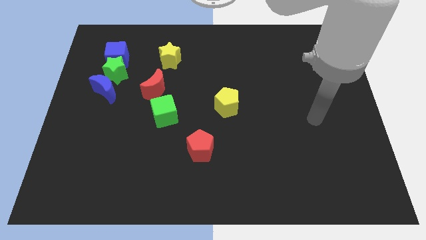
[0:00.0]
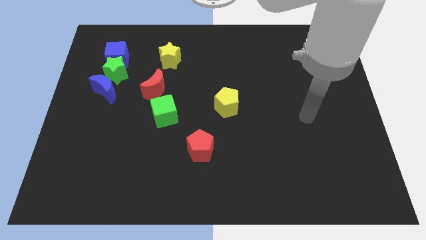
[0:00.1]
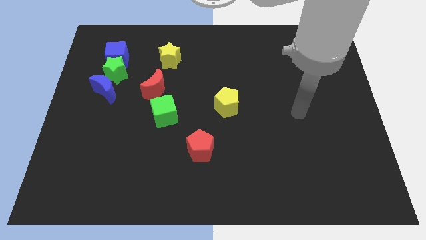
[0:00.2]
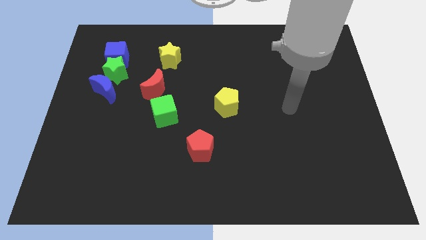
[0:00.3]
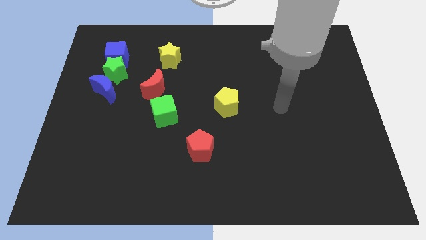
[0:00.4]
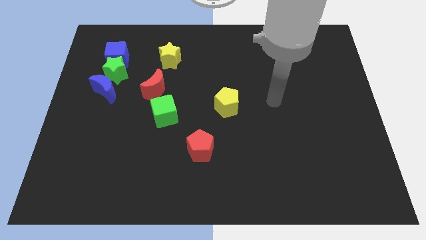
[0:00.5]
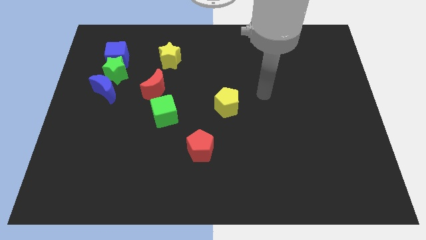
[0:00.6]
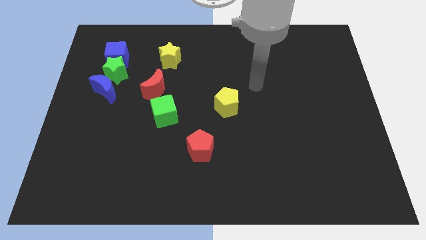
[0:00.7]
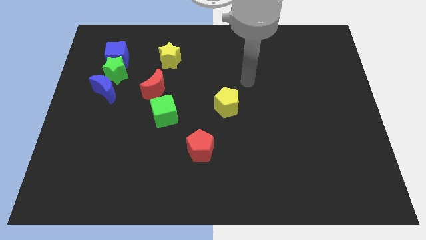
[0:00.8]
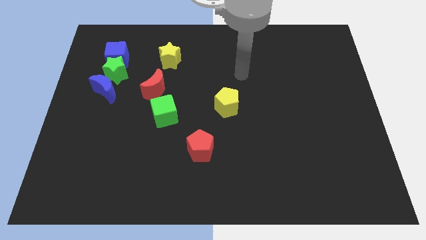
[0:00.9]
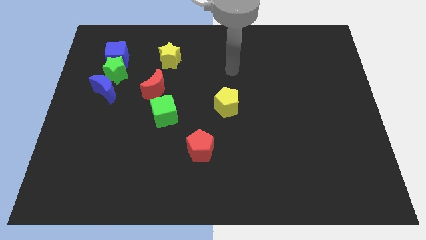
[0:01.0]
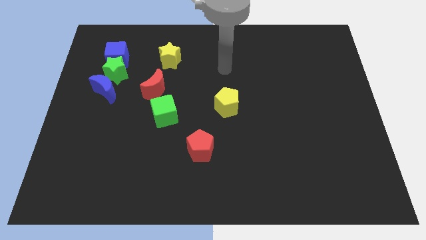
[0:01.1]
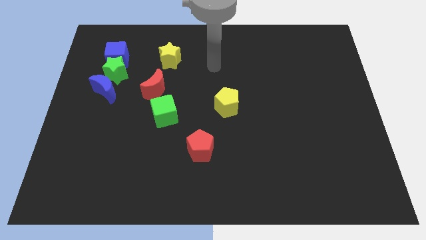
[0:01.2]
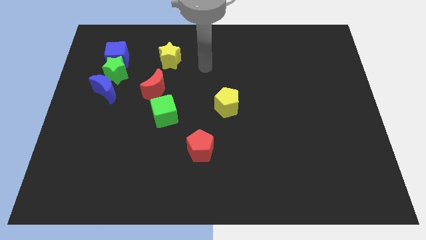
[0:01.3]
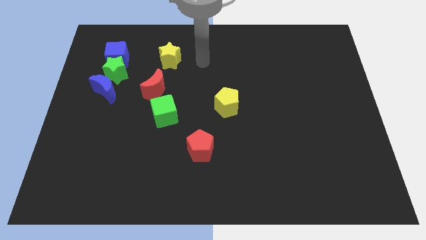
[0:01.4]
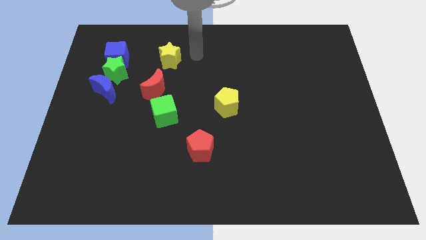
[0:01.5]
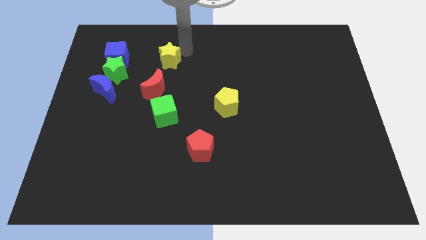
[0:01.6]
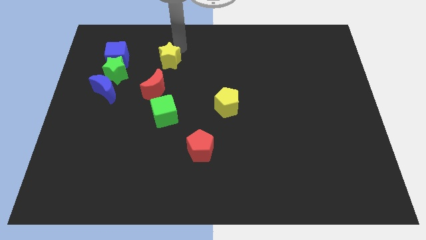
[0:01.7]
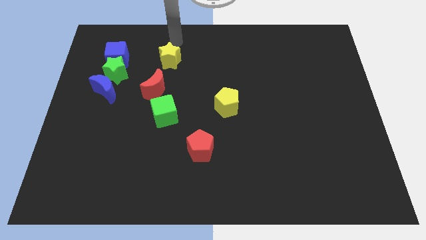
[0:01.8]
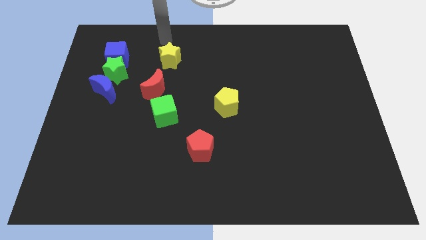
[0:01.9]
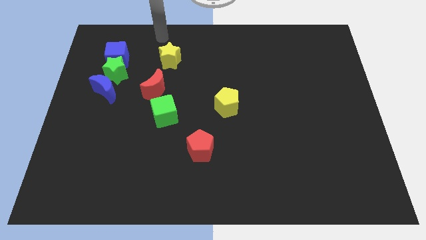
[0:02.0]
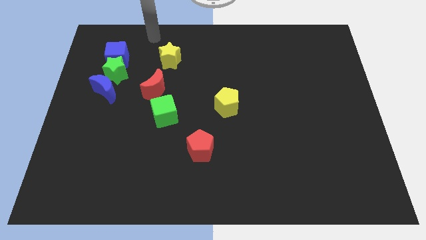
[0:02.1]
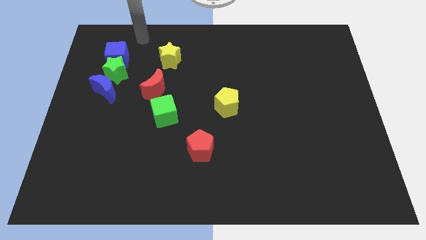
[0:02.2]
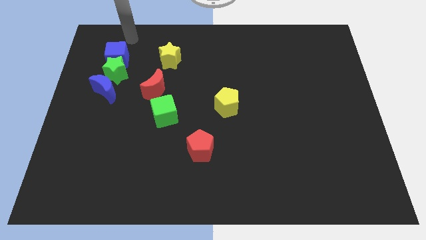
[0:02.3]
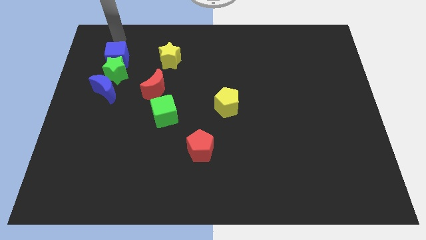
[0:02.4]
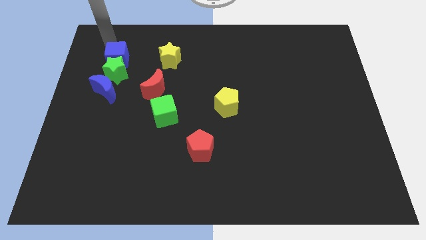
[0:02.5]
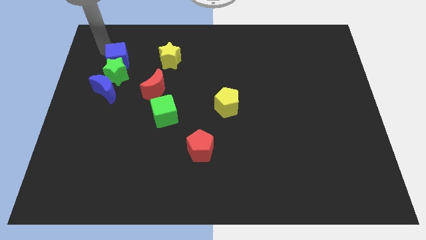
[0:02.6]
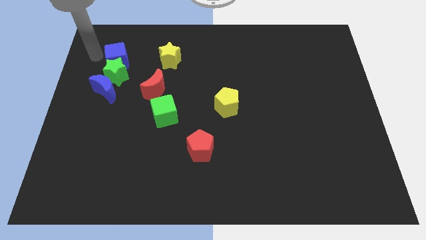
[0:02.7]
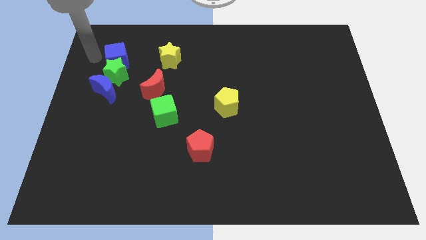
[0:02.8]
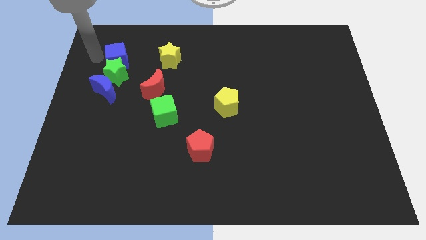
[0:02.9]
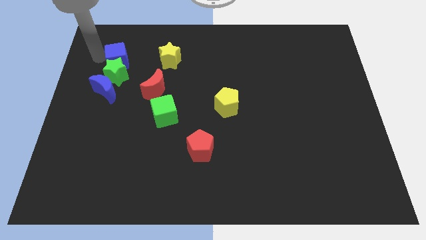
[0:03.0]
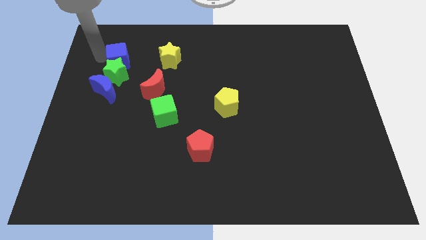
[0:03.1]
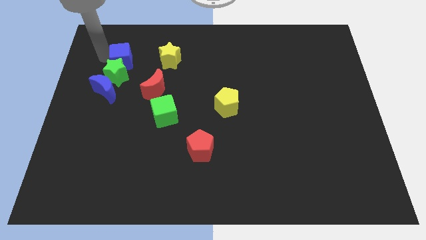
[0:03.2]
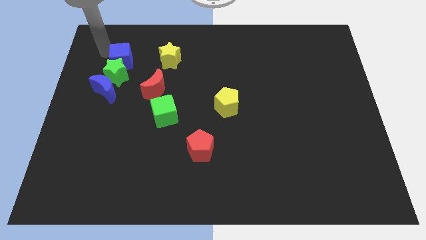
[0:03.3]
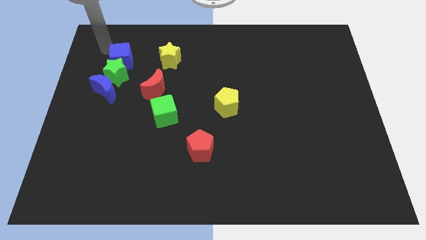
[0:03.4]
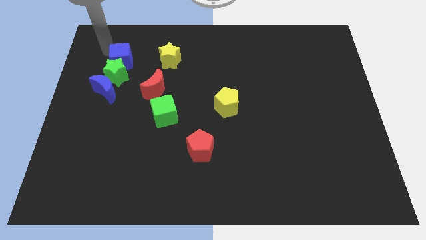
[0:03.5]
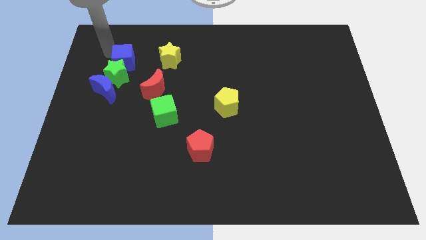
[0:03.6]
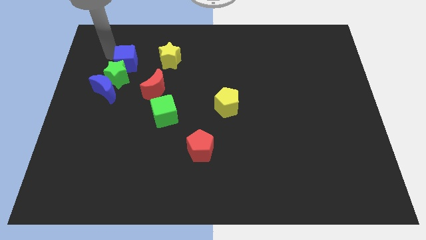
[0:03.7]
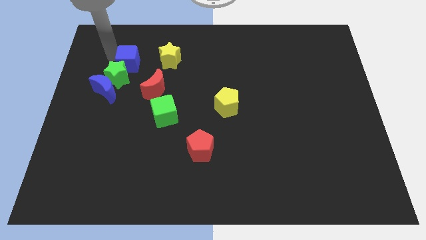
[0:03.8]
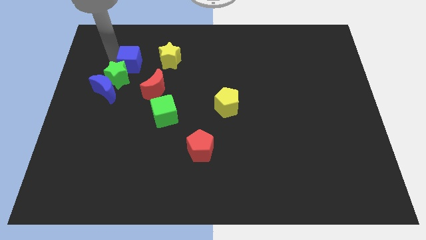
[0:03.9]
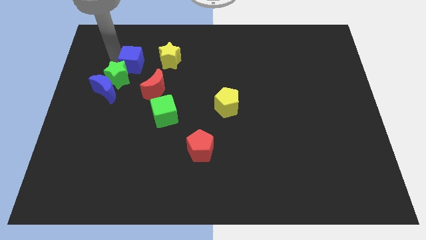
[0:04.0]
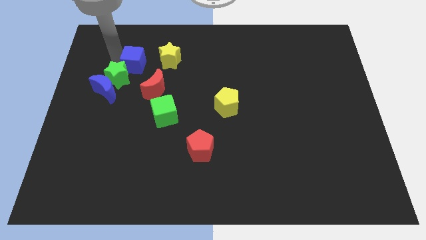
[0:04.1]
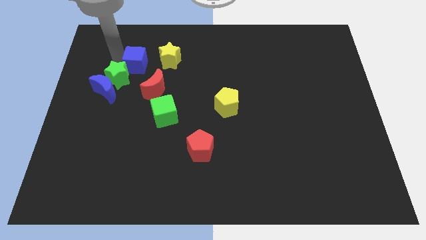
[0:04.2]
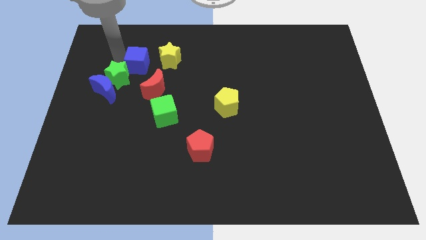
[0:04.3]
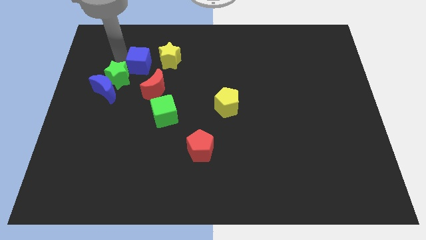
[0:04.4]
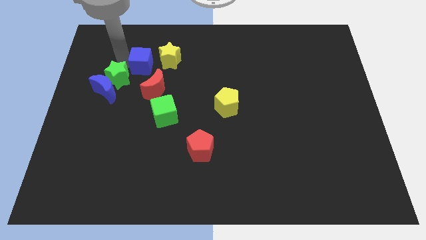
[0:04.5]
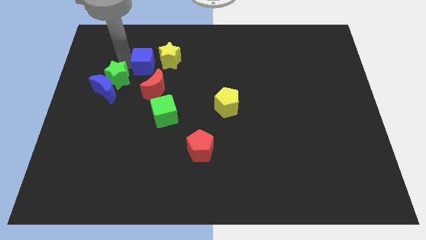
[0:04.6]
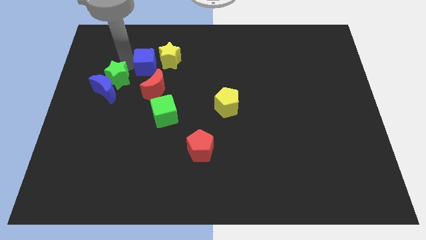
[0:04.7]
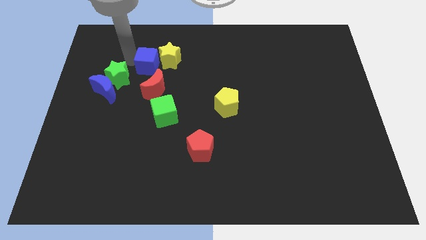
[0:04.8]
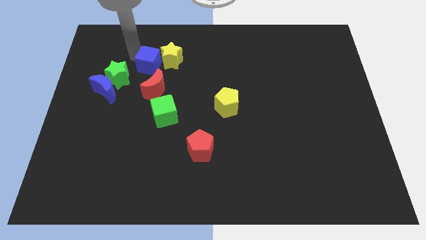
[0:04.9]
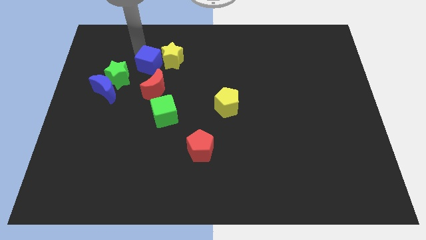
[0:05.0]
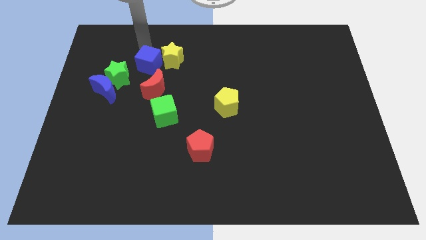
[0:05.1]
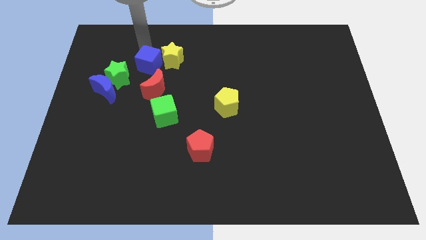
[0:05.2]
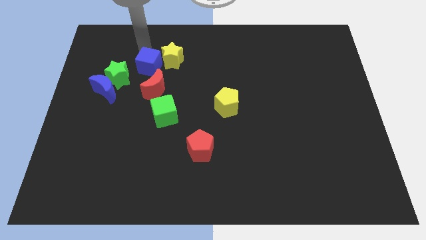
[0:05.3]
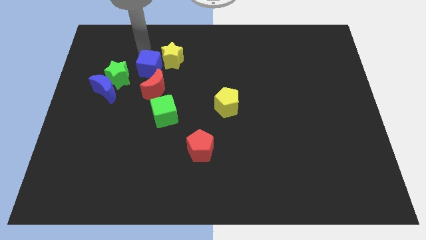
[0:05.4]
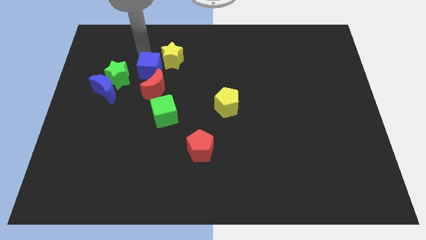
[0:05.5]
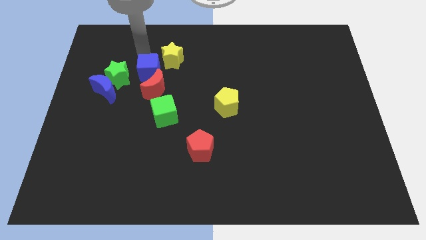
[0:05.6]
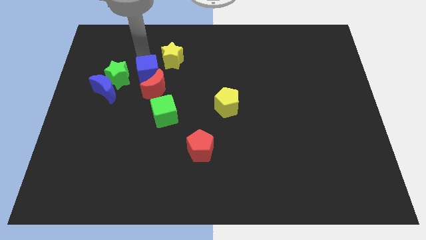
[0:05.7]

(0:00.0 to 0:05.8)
move the blue cube next to the red moon

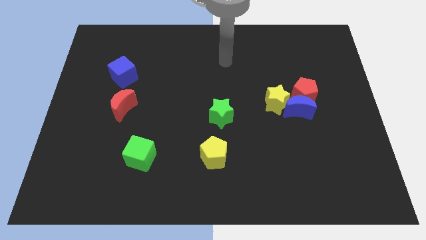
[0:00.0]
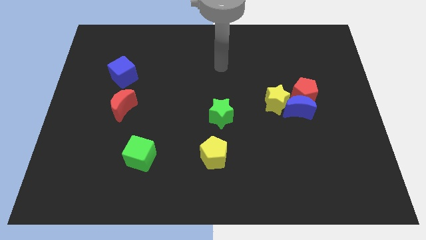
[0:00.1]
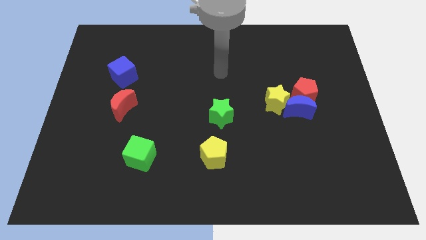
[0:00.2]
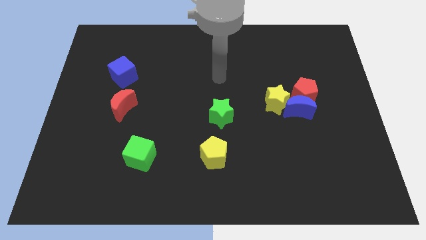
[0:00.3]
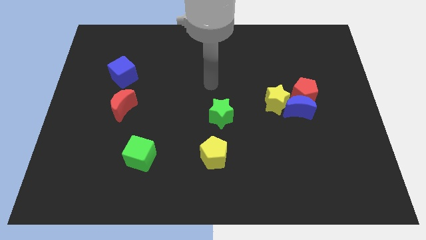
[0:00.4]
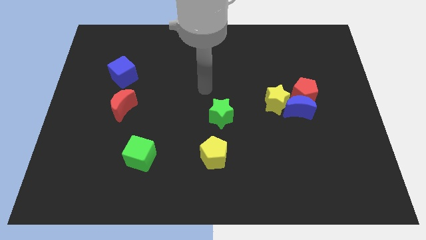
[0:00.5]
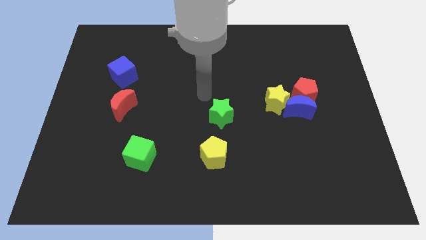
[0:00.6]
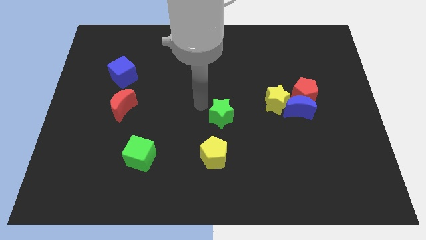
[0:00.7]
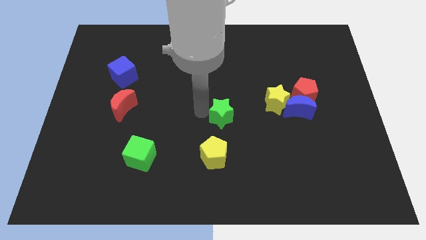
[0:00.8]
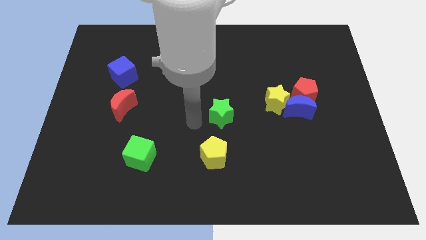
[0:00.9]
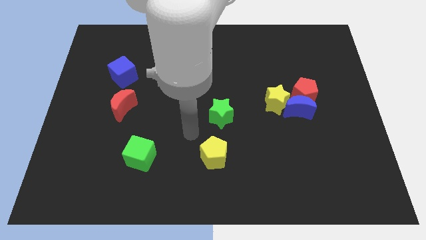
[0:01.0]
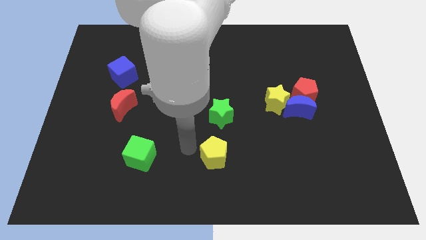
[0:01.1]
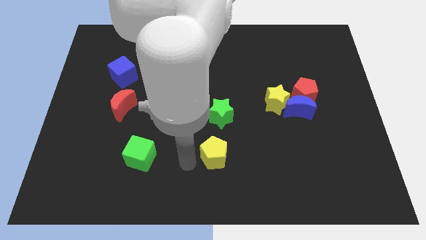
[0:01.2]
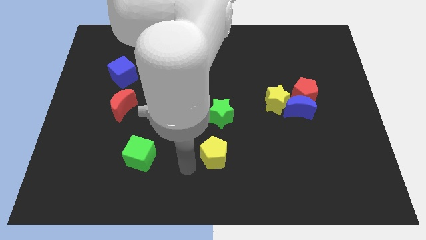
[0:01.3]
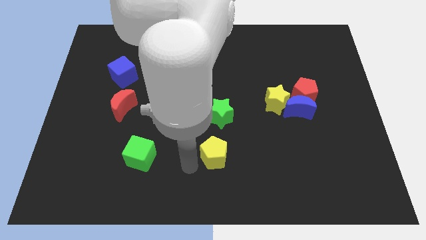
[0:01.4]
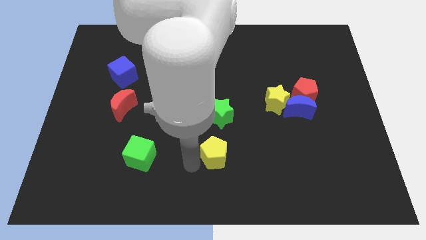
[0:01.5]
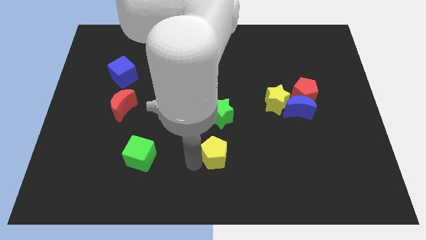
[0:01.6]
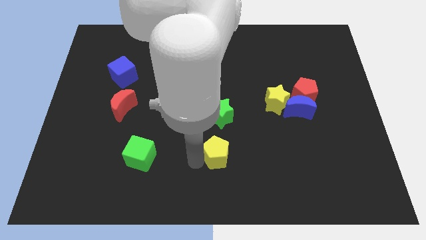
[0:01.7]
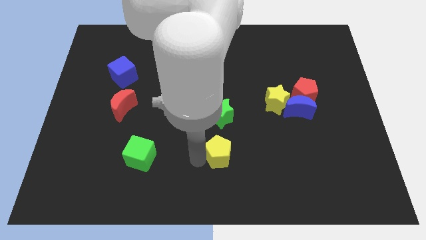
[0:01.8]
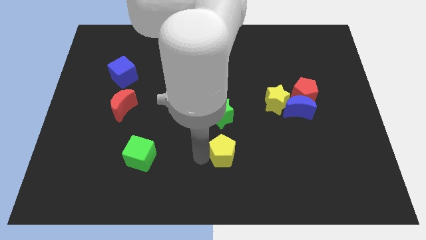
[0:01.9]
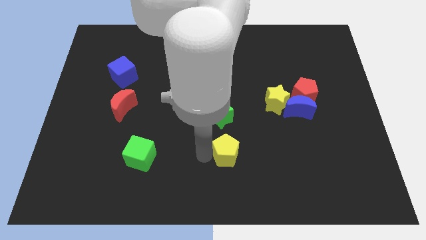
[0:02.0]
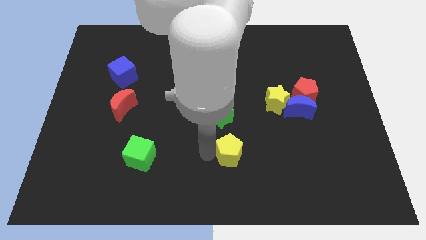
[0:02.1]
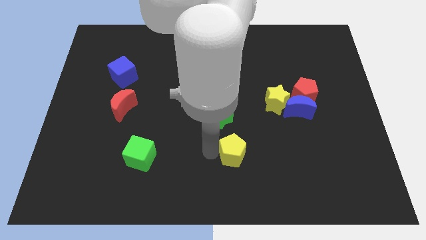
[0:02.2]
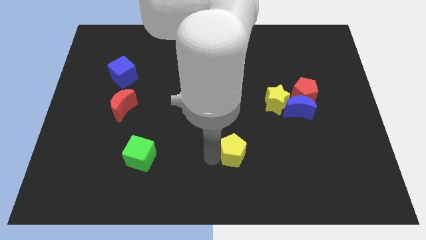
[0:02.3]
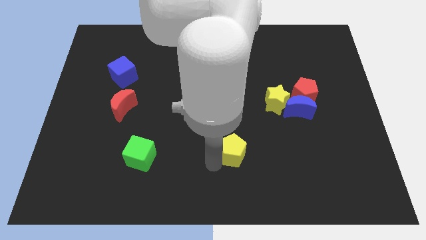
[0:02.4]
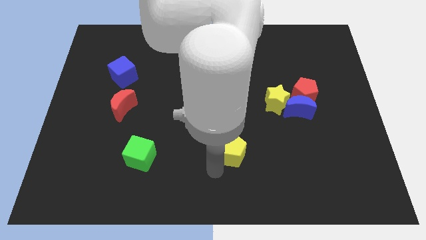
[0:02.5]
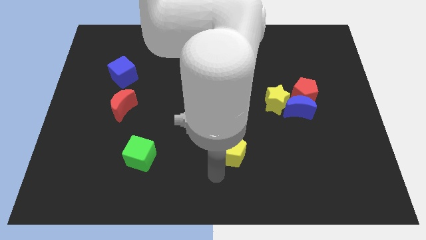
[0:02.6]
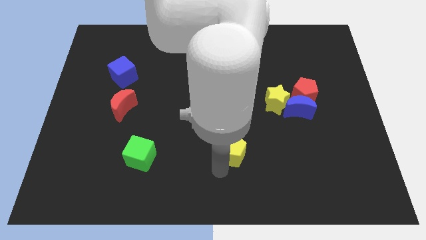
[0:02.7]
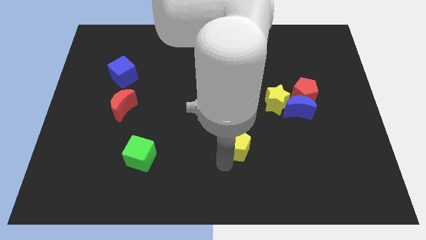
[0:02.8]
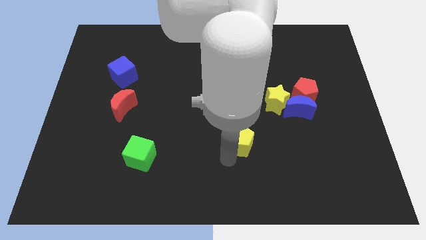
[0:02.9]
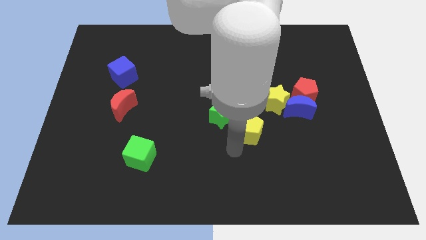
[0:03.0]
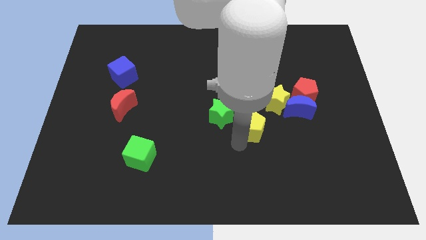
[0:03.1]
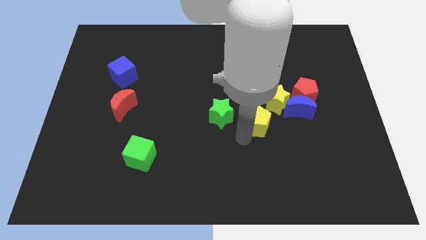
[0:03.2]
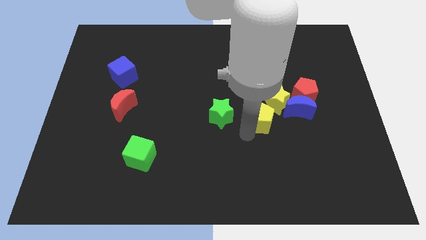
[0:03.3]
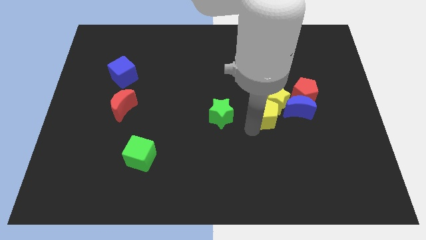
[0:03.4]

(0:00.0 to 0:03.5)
move the yellow pentagon close to the yellow star
